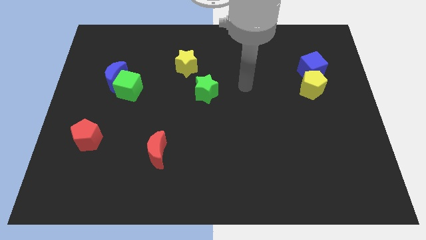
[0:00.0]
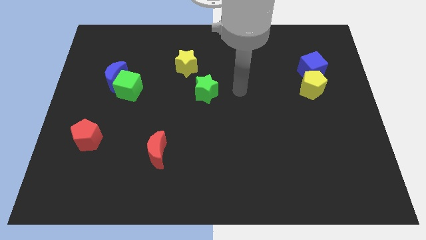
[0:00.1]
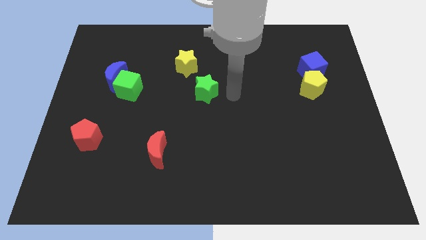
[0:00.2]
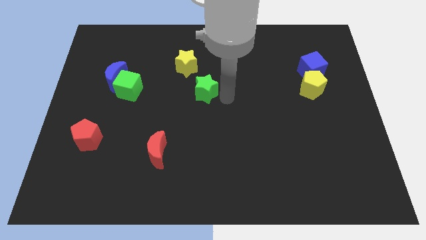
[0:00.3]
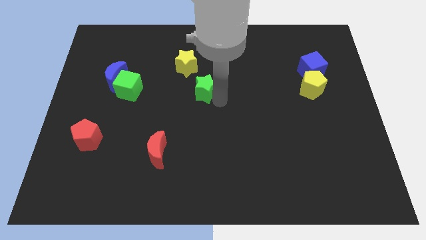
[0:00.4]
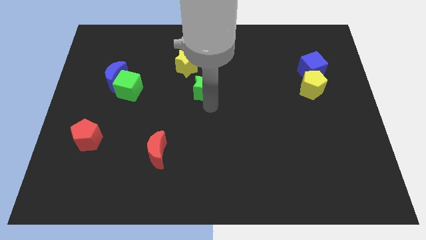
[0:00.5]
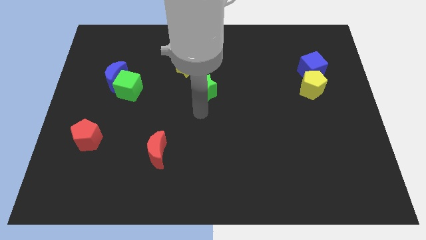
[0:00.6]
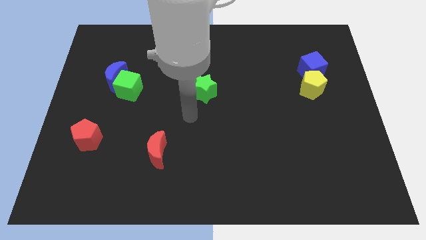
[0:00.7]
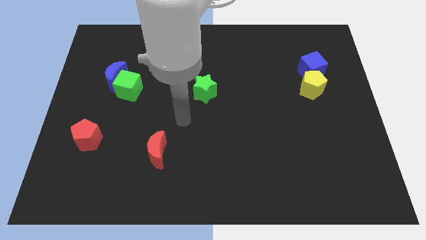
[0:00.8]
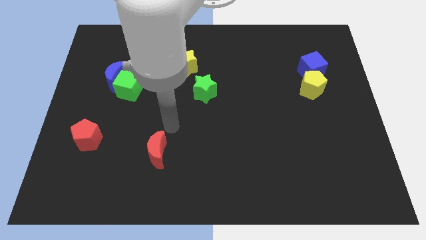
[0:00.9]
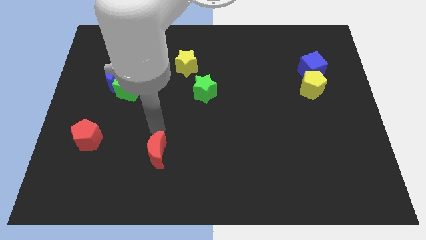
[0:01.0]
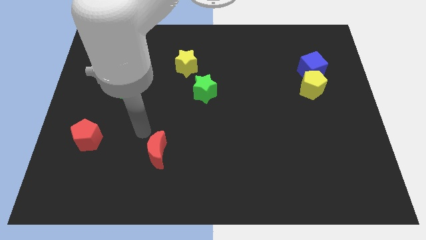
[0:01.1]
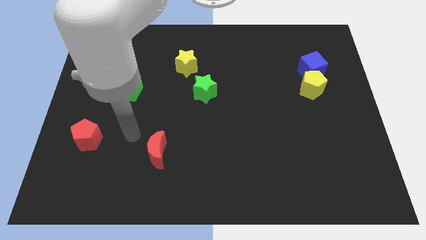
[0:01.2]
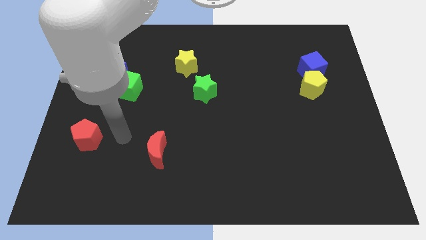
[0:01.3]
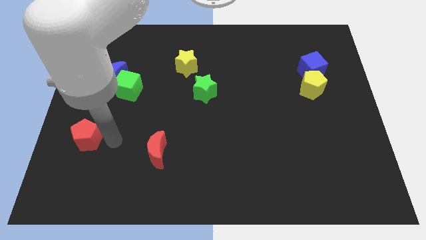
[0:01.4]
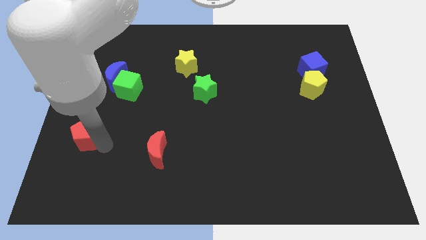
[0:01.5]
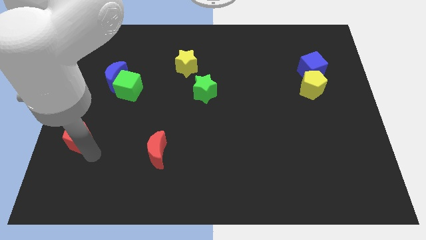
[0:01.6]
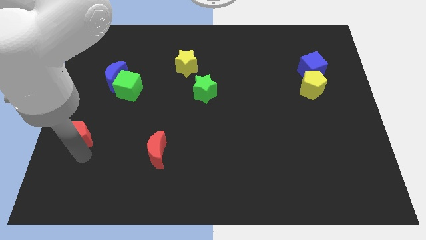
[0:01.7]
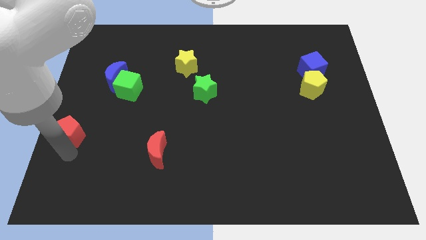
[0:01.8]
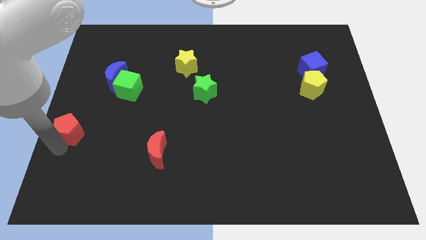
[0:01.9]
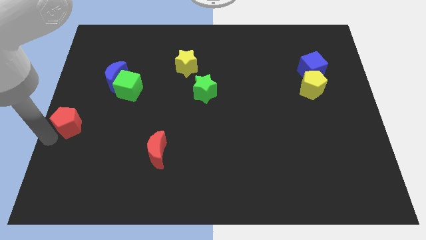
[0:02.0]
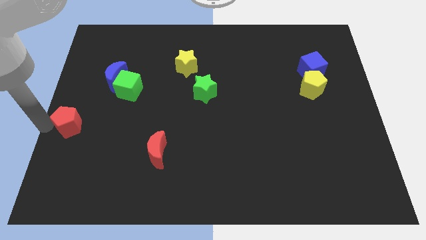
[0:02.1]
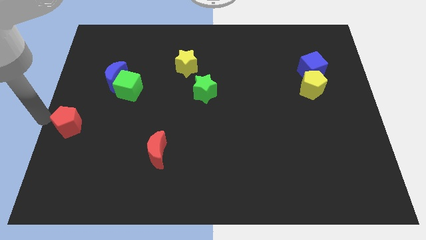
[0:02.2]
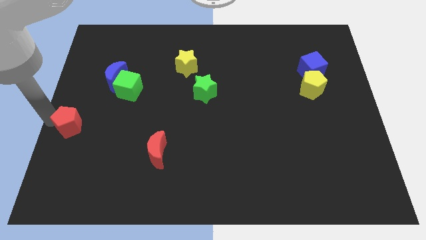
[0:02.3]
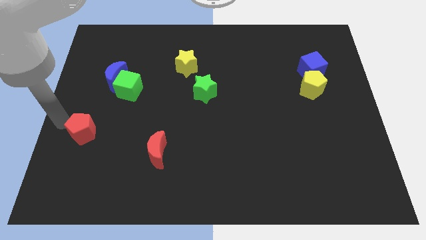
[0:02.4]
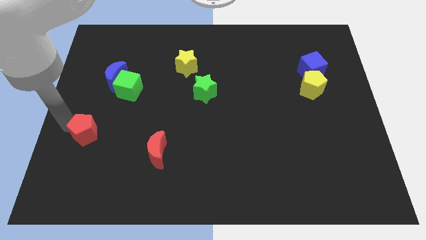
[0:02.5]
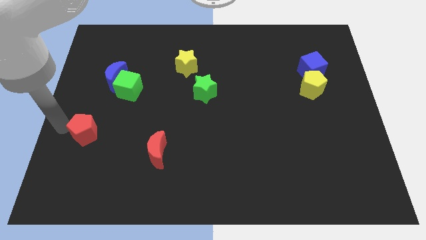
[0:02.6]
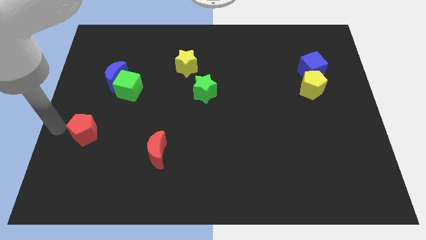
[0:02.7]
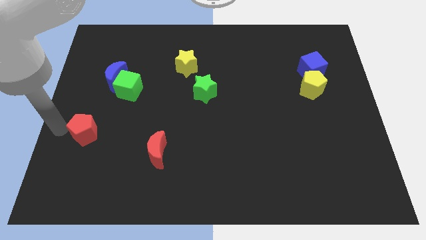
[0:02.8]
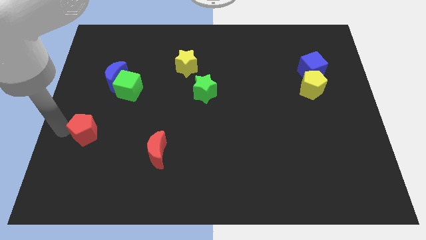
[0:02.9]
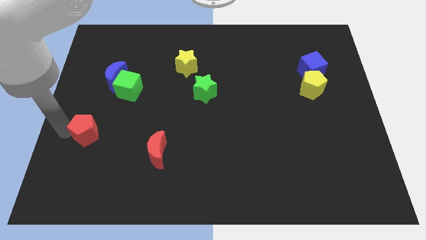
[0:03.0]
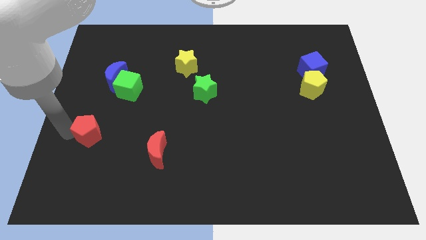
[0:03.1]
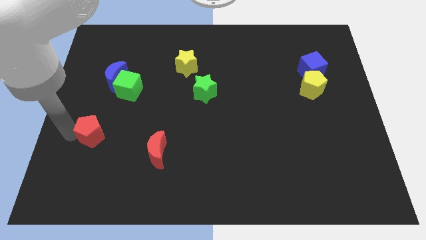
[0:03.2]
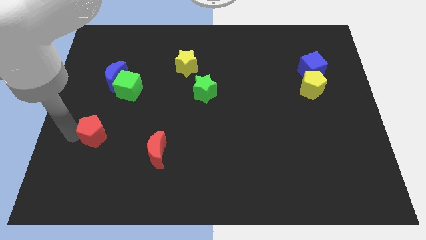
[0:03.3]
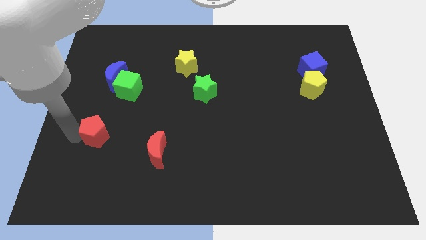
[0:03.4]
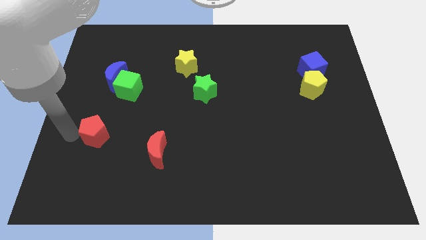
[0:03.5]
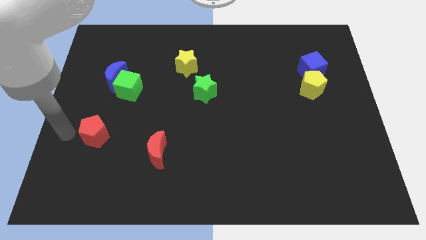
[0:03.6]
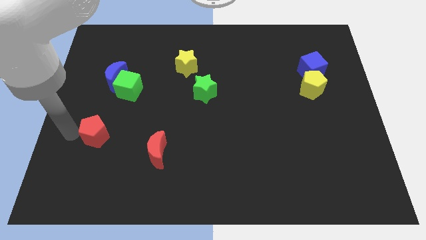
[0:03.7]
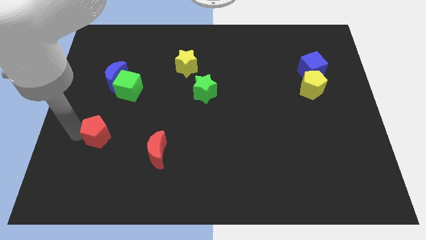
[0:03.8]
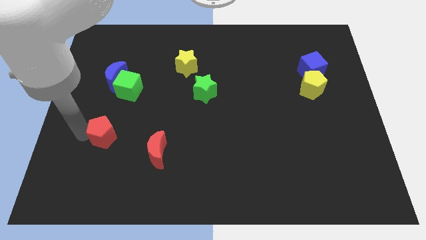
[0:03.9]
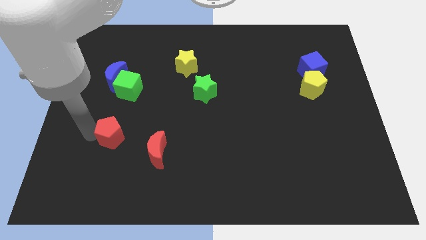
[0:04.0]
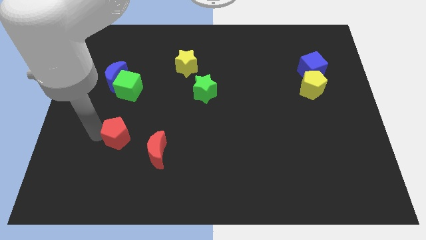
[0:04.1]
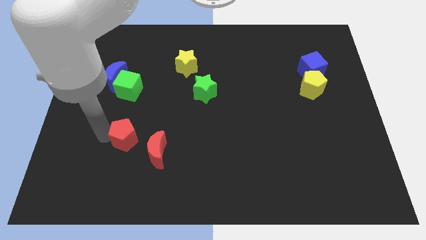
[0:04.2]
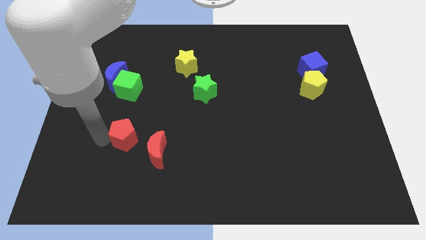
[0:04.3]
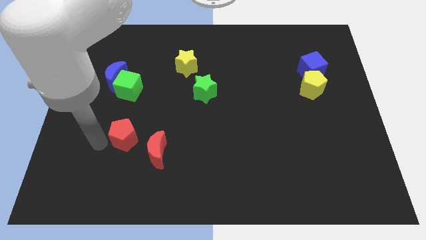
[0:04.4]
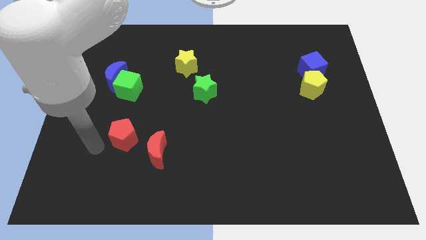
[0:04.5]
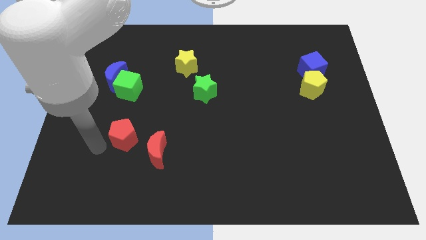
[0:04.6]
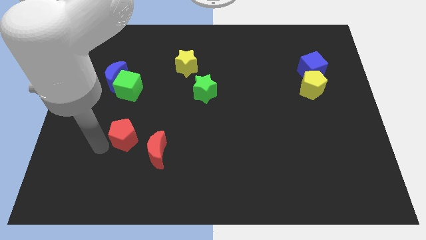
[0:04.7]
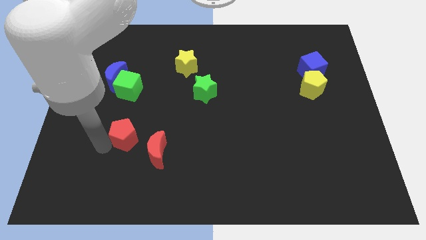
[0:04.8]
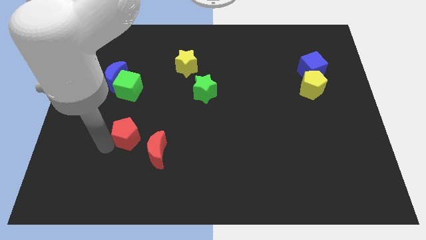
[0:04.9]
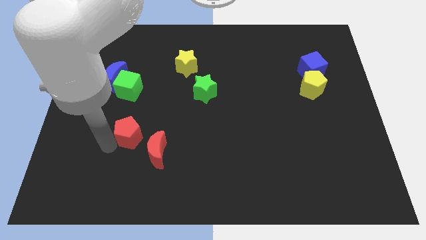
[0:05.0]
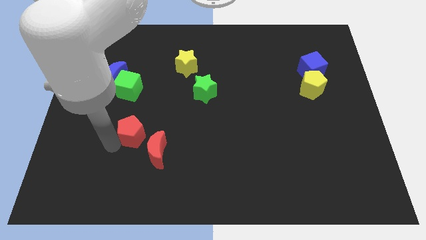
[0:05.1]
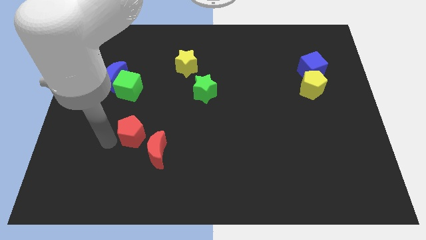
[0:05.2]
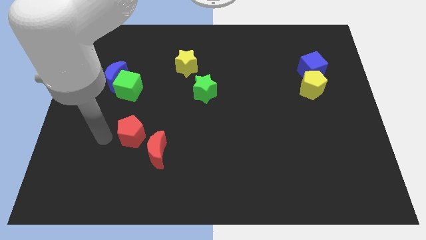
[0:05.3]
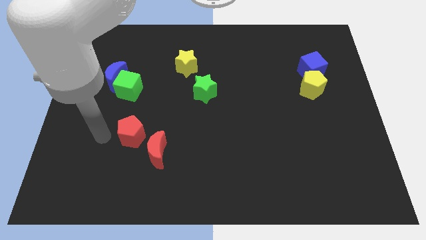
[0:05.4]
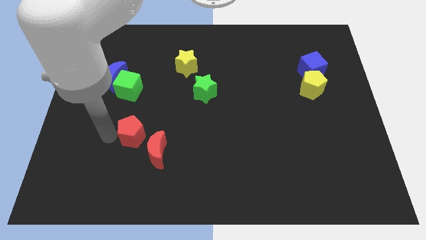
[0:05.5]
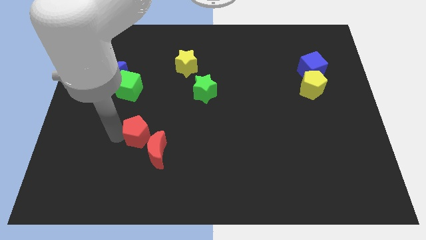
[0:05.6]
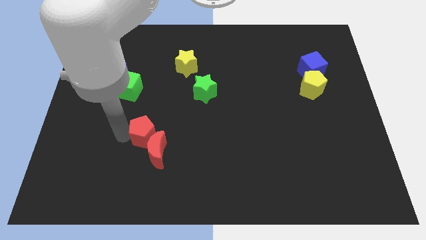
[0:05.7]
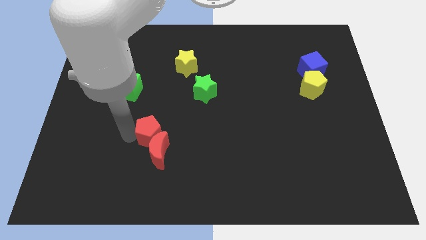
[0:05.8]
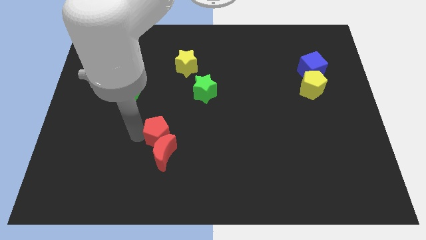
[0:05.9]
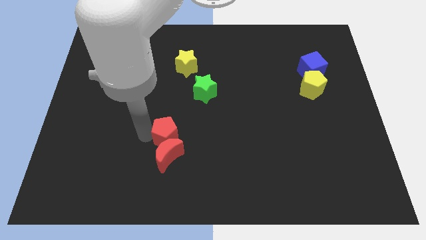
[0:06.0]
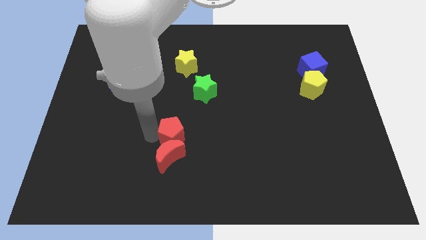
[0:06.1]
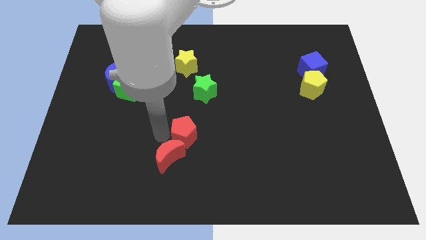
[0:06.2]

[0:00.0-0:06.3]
slide the red pentagon to the right

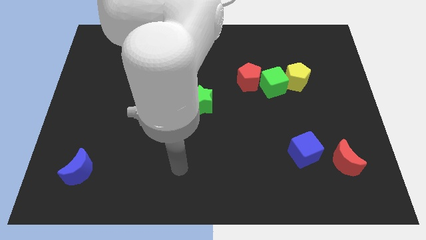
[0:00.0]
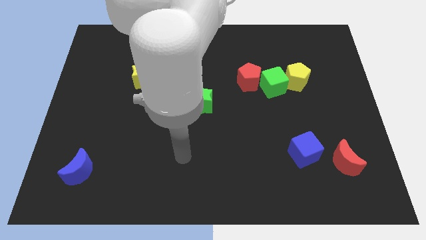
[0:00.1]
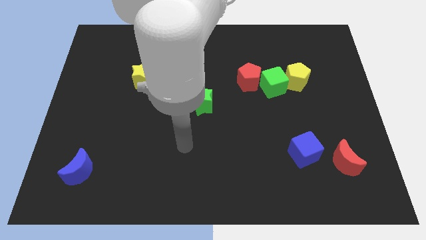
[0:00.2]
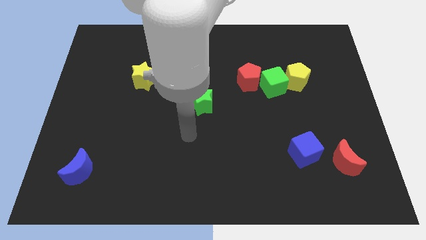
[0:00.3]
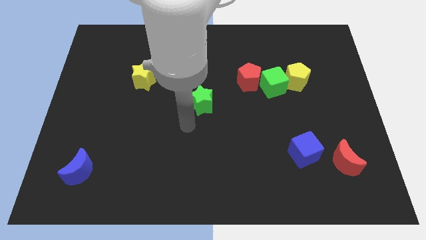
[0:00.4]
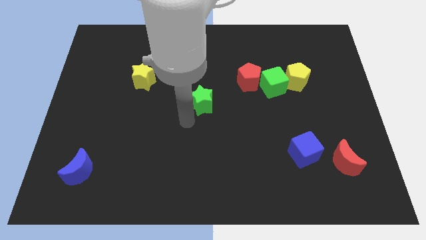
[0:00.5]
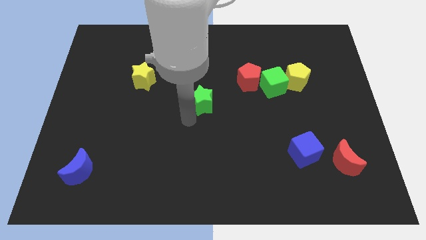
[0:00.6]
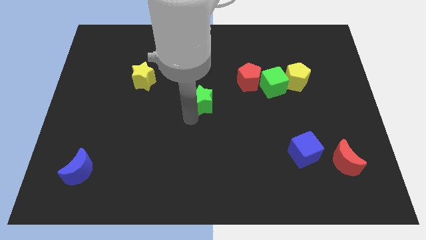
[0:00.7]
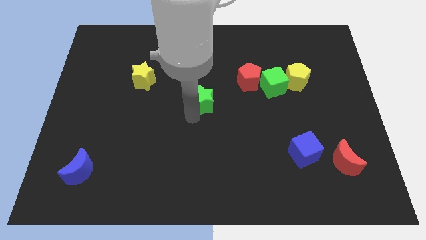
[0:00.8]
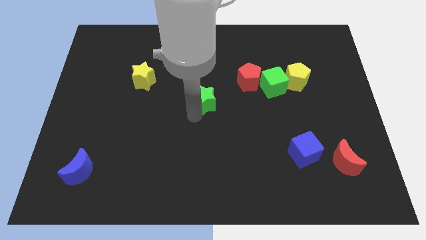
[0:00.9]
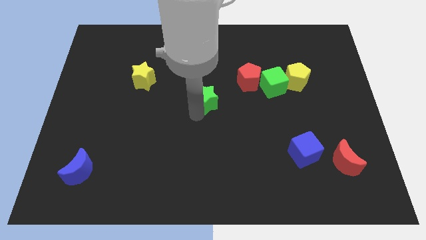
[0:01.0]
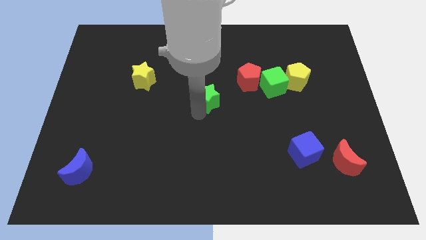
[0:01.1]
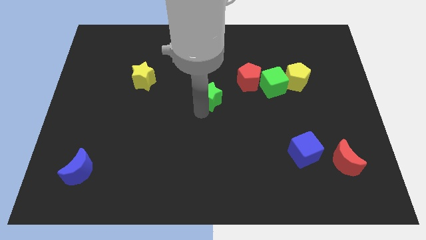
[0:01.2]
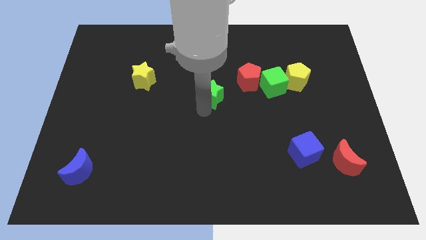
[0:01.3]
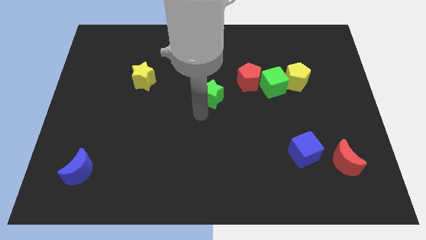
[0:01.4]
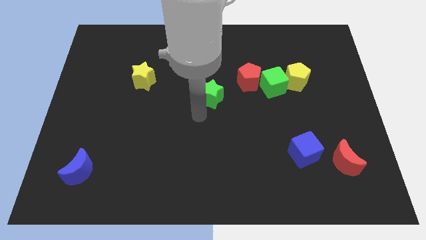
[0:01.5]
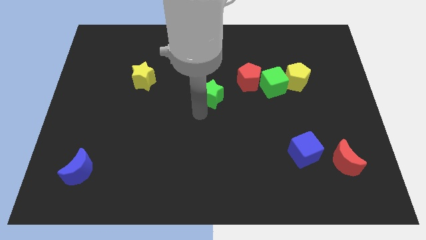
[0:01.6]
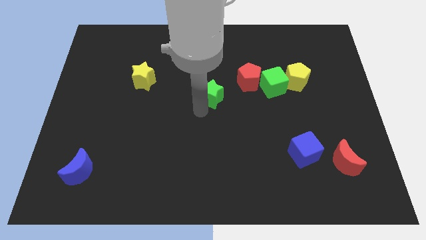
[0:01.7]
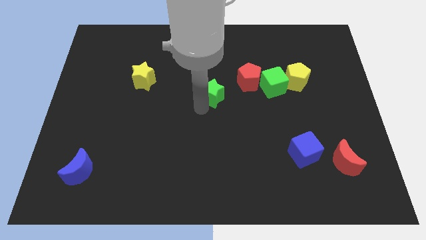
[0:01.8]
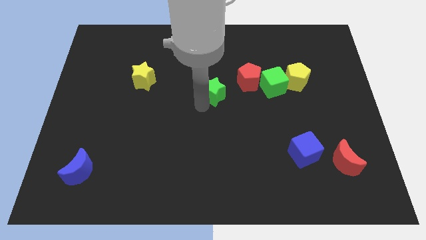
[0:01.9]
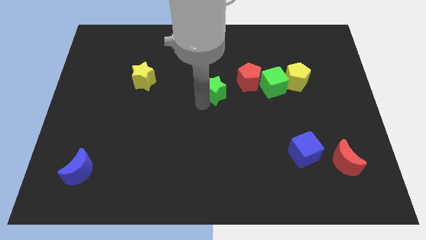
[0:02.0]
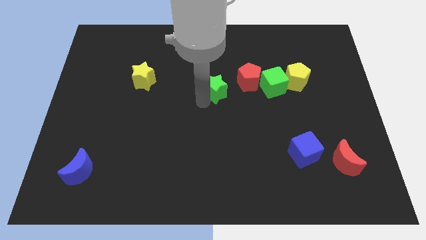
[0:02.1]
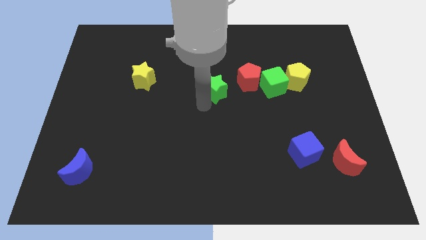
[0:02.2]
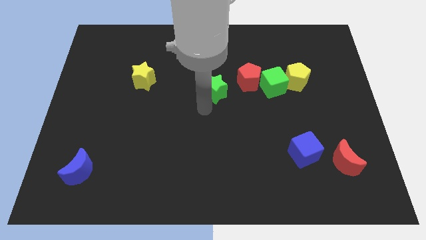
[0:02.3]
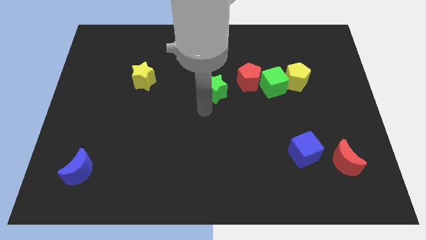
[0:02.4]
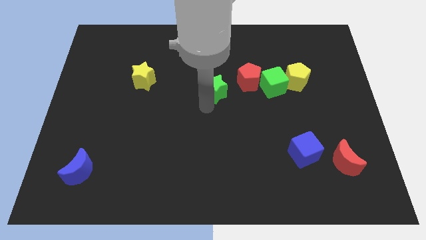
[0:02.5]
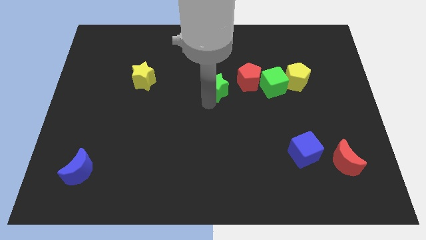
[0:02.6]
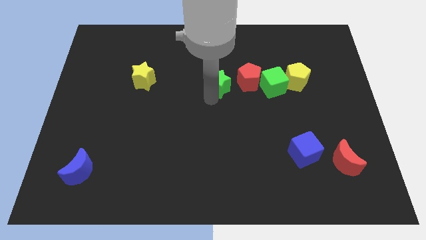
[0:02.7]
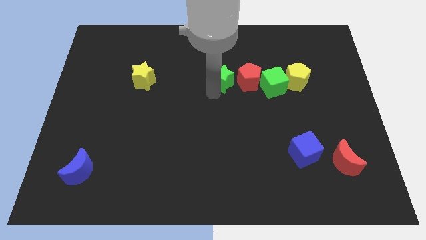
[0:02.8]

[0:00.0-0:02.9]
slightly move the green star up and right
